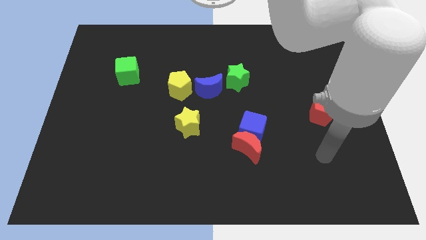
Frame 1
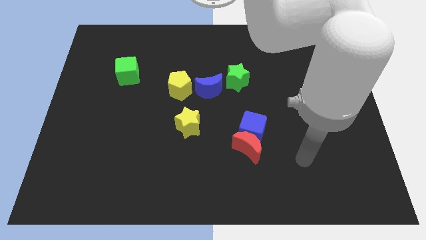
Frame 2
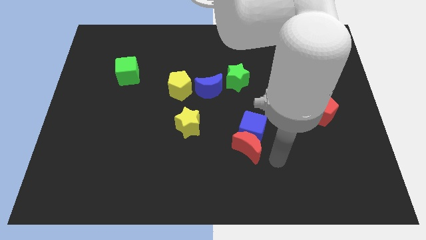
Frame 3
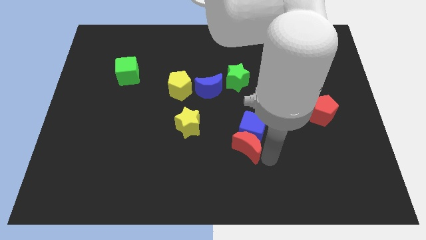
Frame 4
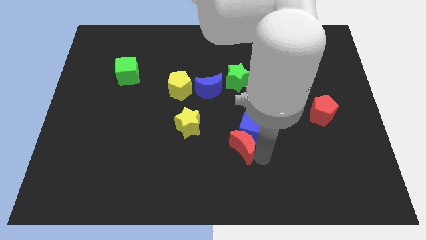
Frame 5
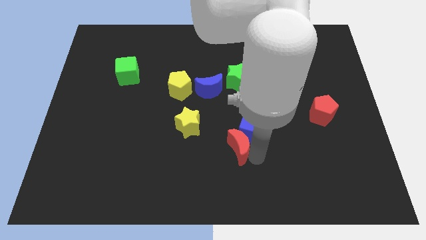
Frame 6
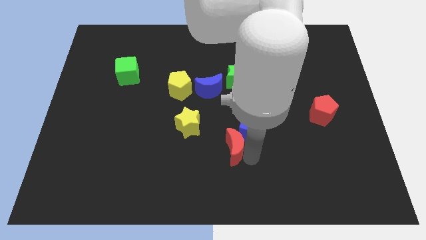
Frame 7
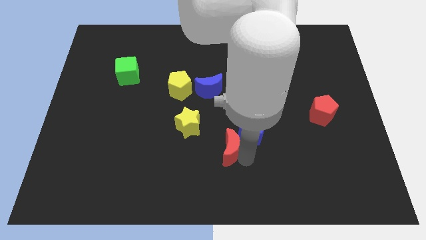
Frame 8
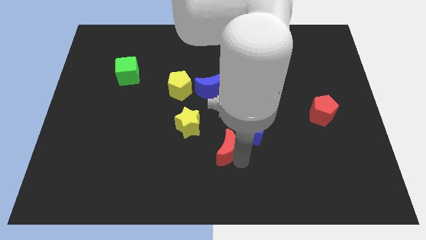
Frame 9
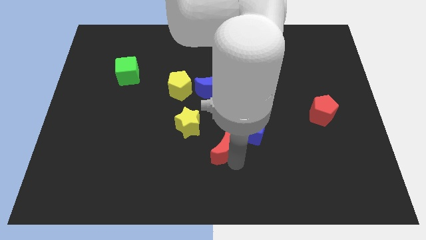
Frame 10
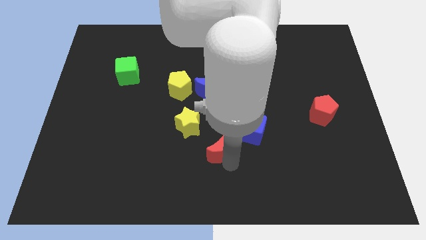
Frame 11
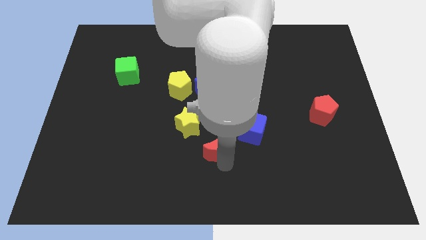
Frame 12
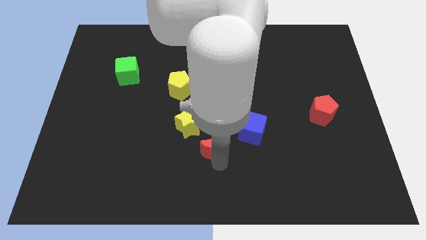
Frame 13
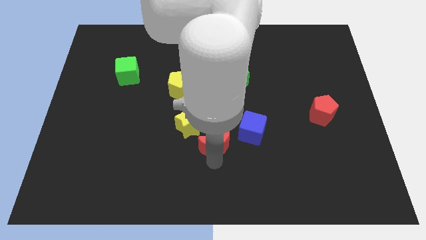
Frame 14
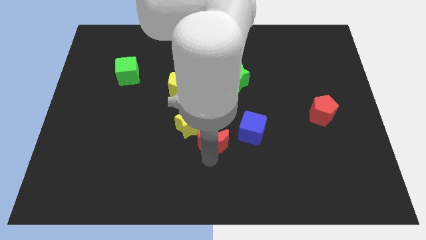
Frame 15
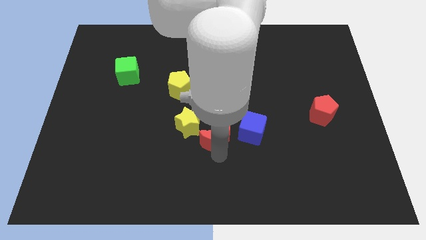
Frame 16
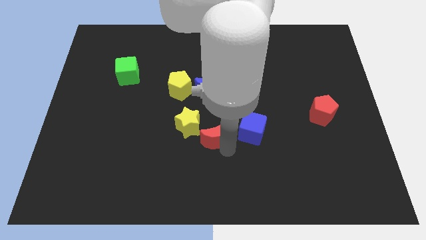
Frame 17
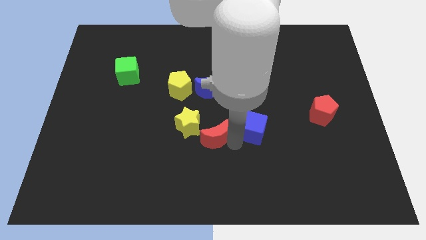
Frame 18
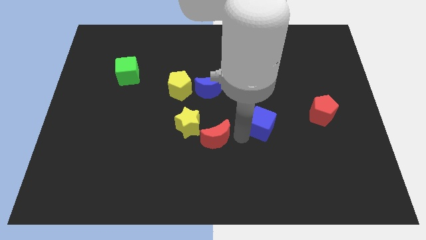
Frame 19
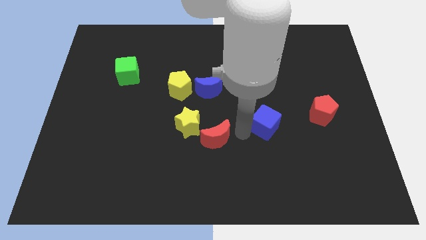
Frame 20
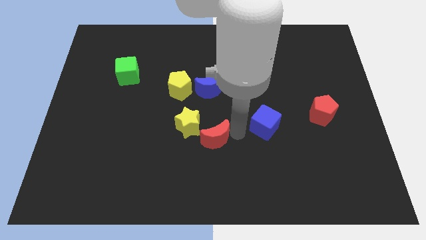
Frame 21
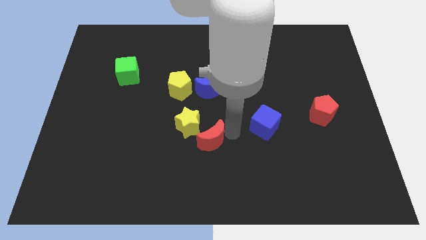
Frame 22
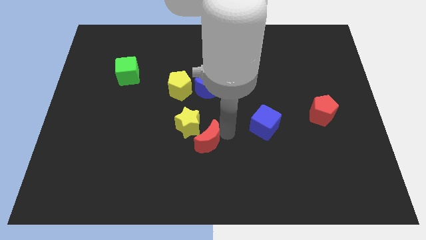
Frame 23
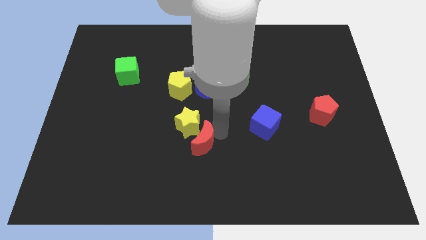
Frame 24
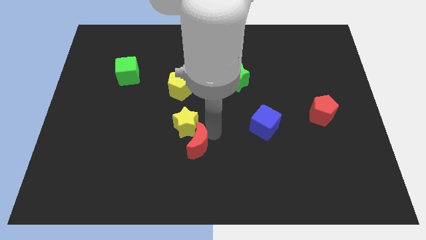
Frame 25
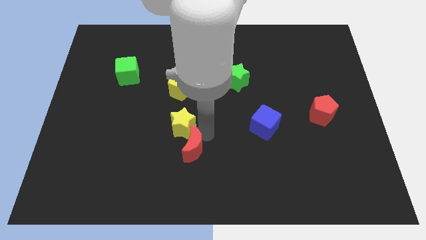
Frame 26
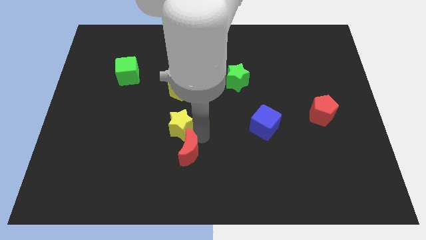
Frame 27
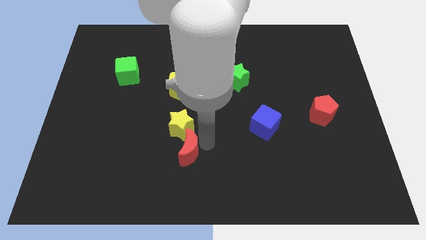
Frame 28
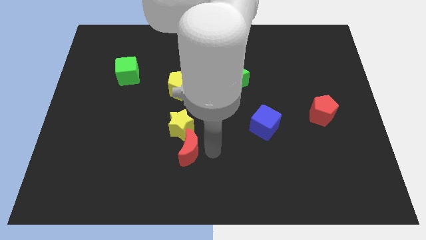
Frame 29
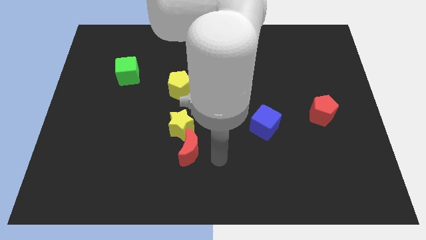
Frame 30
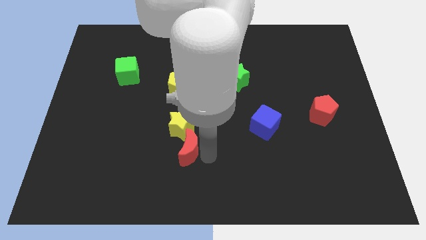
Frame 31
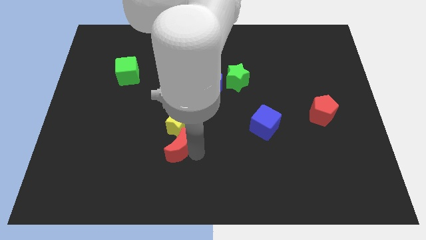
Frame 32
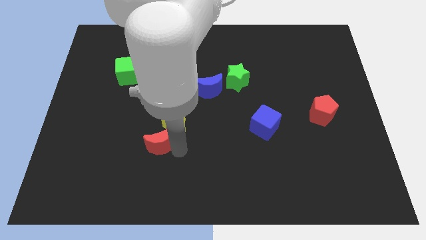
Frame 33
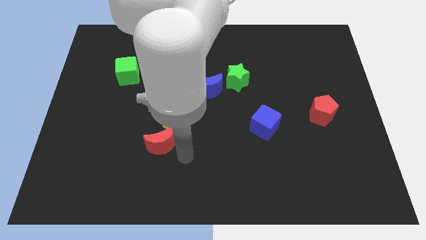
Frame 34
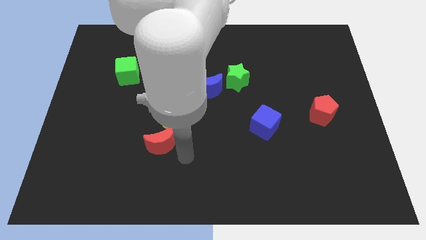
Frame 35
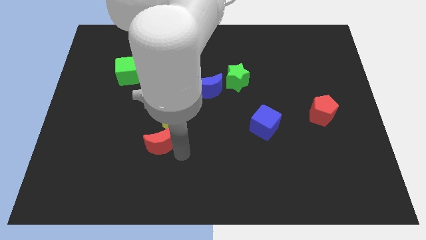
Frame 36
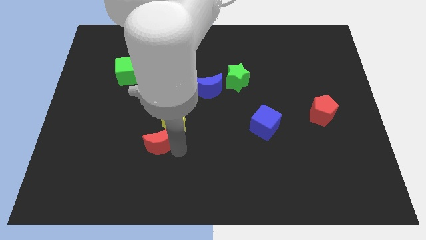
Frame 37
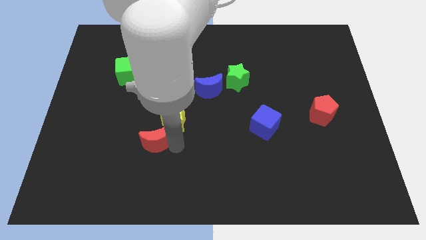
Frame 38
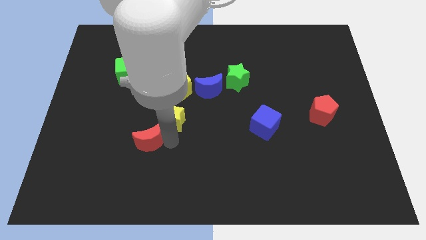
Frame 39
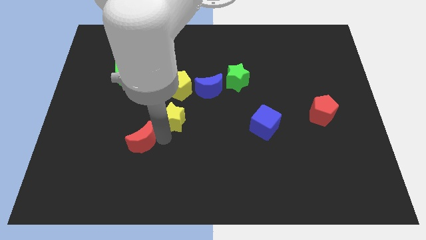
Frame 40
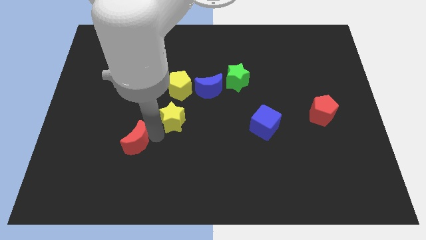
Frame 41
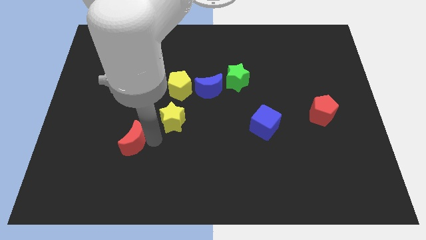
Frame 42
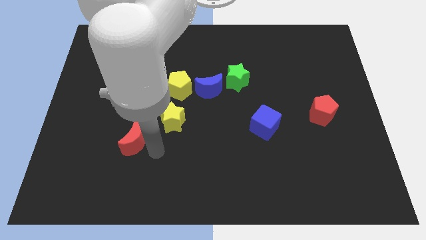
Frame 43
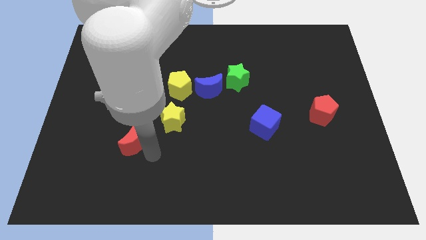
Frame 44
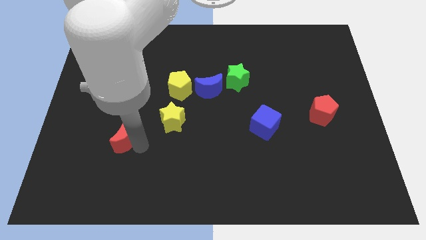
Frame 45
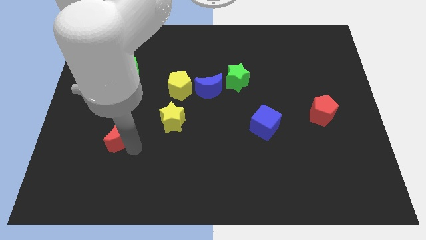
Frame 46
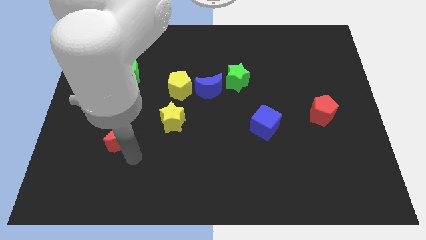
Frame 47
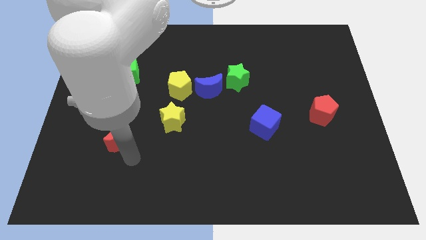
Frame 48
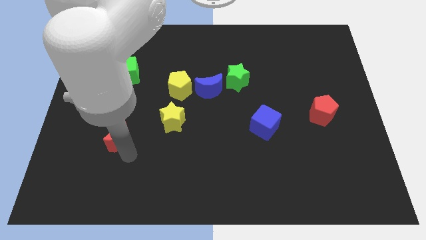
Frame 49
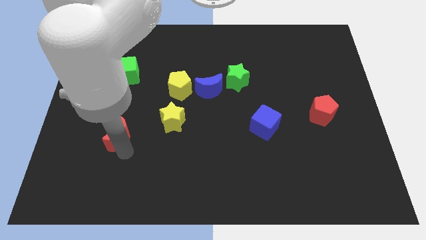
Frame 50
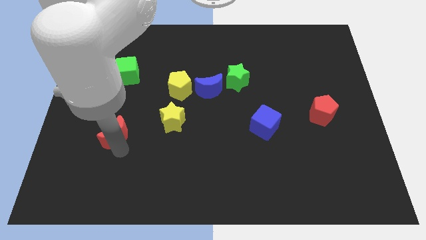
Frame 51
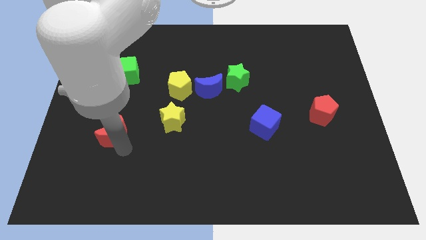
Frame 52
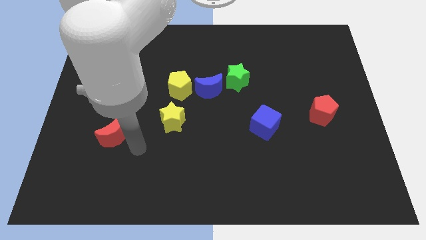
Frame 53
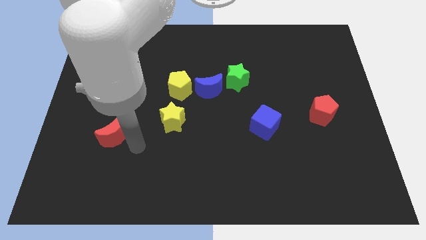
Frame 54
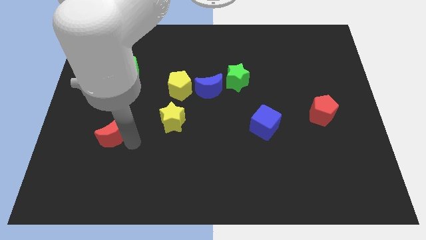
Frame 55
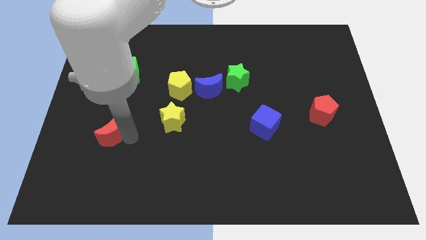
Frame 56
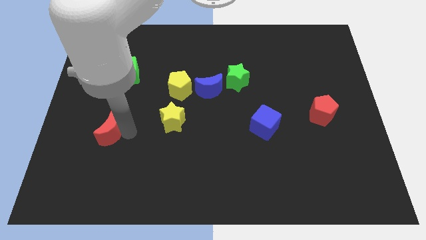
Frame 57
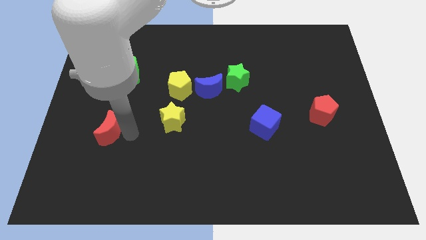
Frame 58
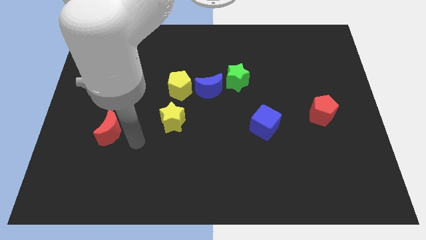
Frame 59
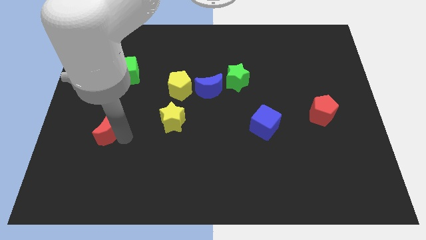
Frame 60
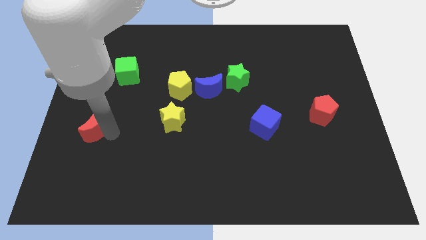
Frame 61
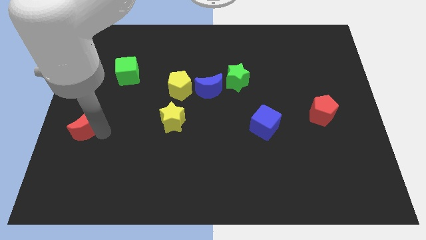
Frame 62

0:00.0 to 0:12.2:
push the red moon to the left side
